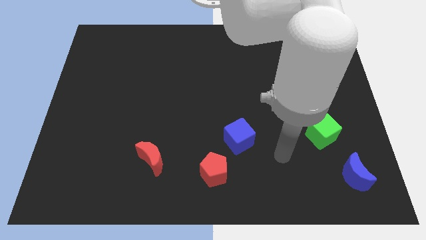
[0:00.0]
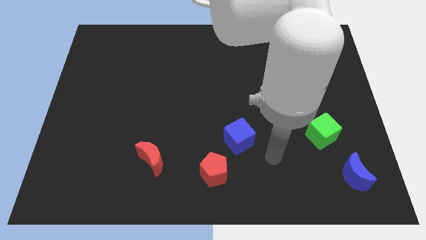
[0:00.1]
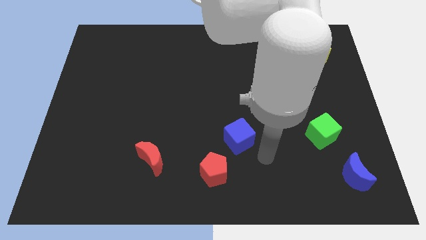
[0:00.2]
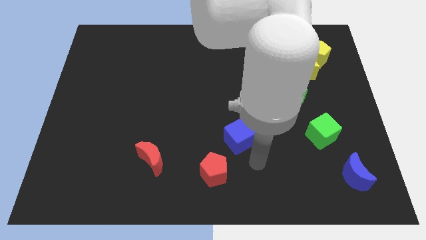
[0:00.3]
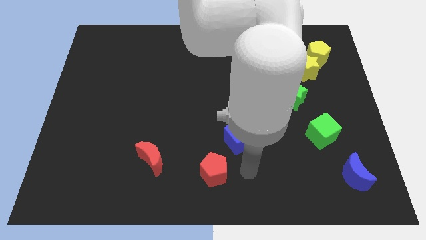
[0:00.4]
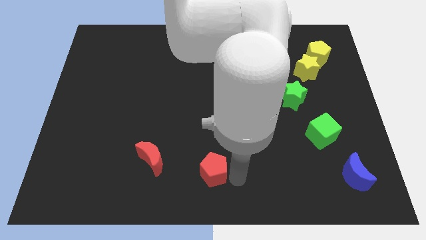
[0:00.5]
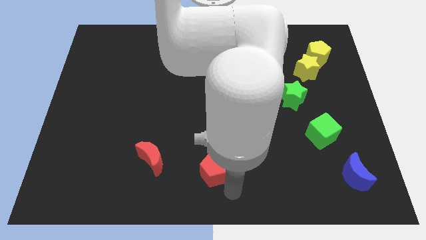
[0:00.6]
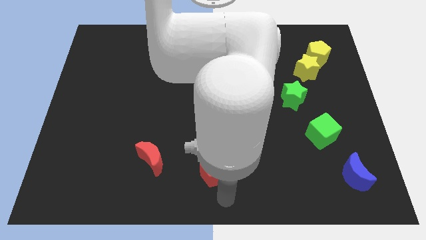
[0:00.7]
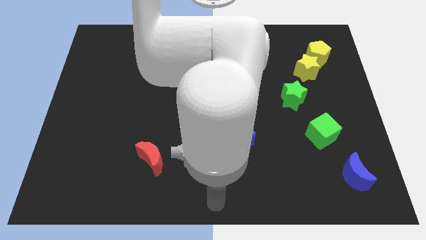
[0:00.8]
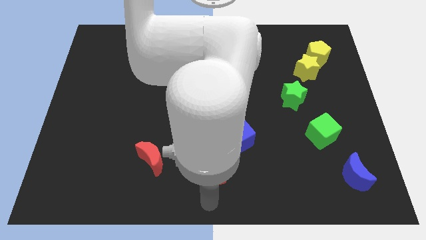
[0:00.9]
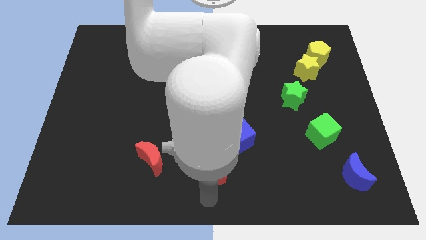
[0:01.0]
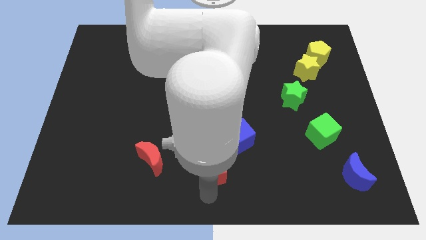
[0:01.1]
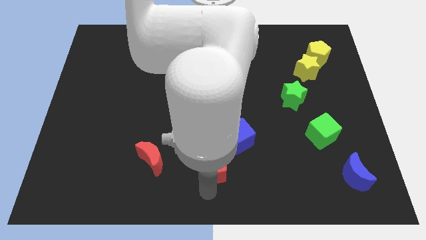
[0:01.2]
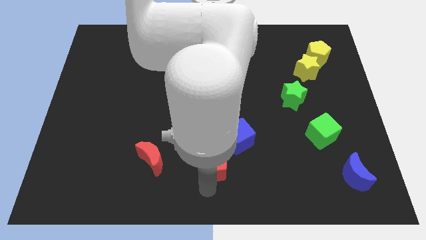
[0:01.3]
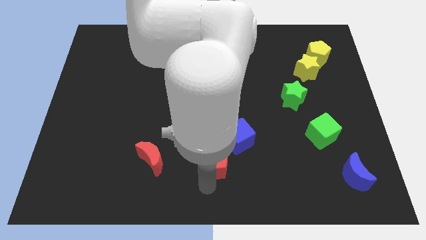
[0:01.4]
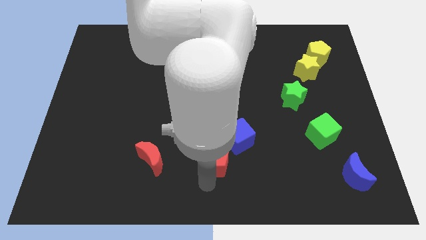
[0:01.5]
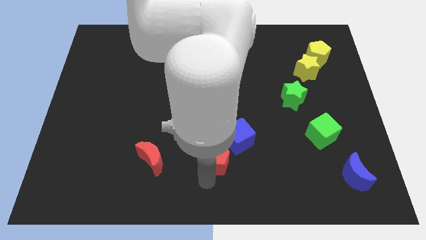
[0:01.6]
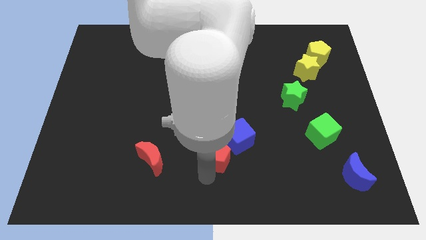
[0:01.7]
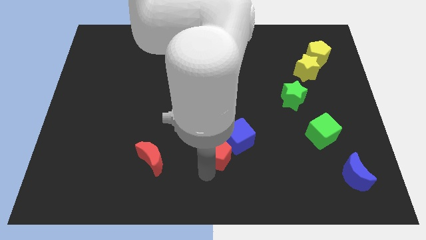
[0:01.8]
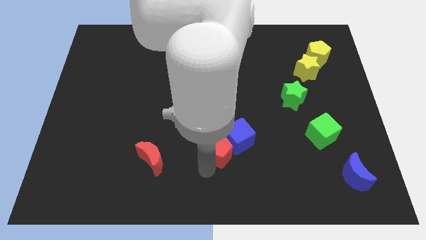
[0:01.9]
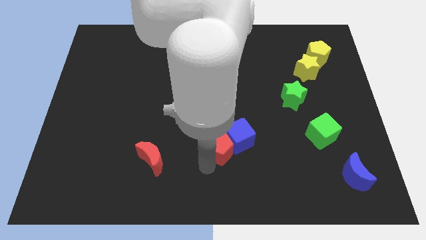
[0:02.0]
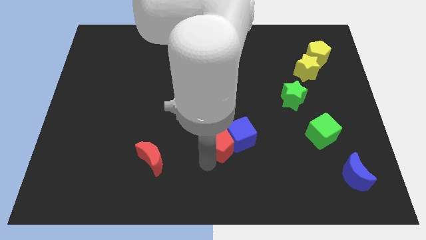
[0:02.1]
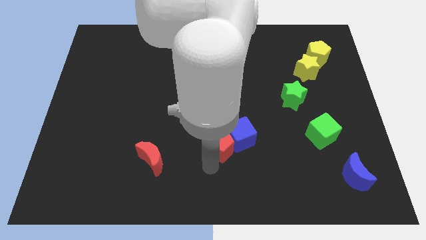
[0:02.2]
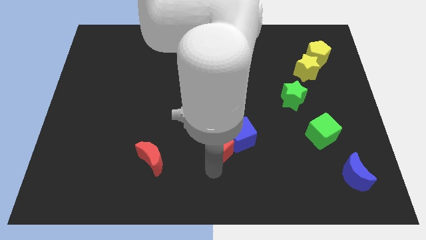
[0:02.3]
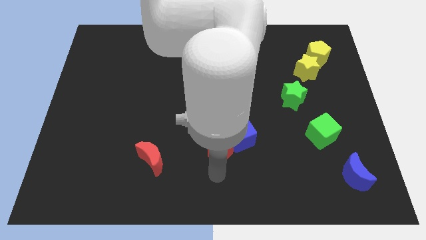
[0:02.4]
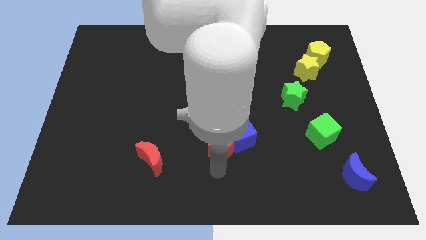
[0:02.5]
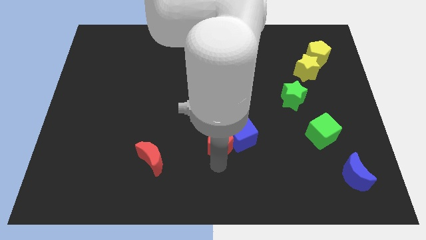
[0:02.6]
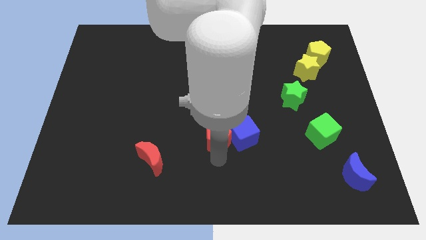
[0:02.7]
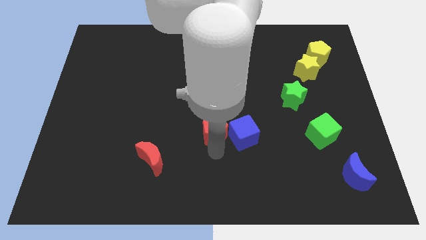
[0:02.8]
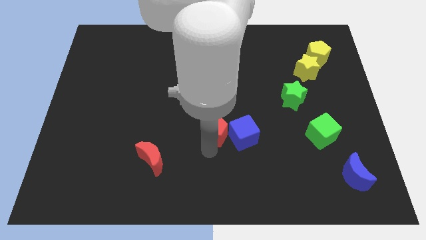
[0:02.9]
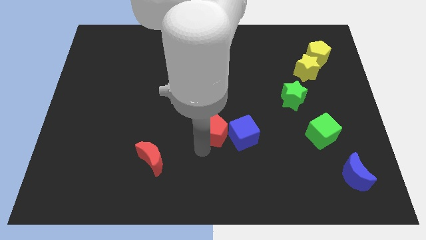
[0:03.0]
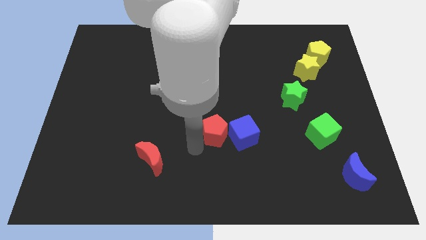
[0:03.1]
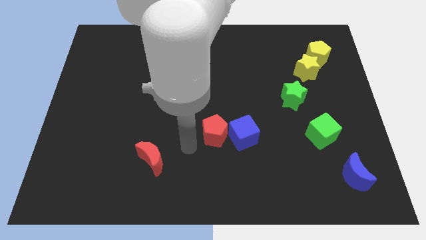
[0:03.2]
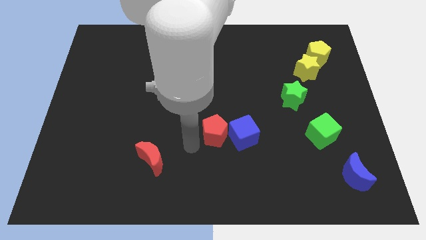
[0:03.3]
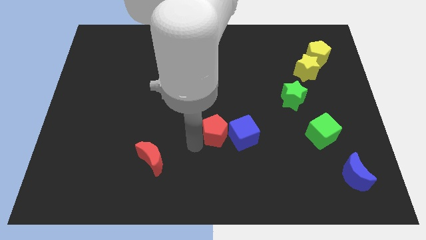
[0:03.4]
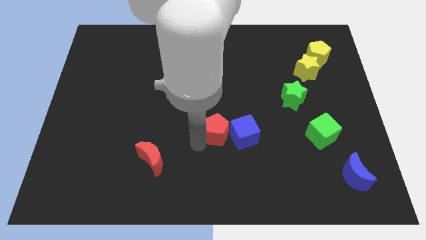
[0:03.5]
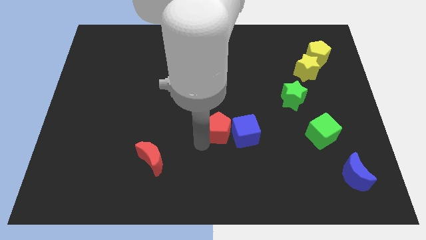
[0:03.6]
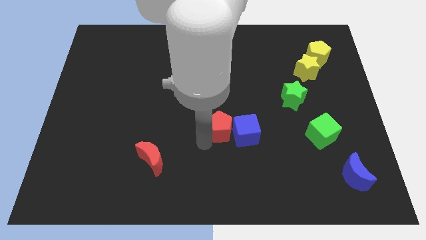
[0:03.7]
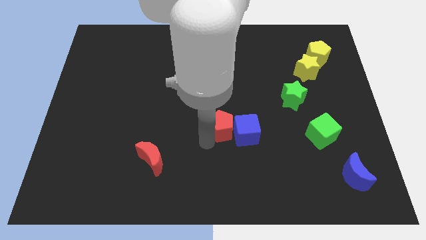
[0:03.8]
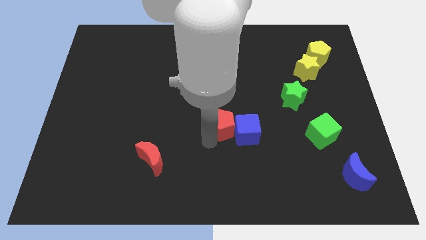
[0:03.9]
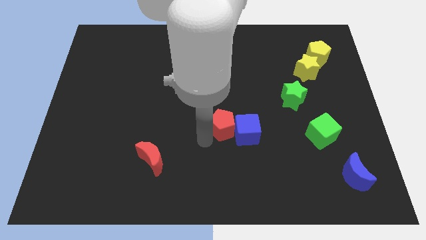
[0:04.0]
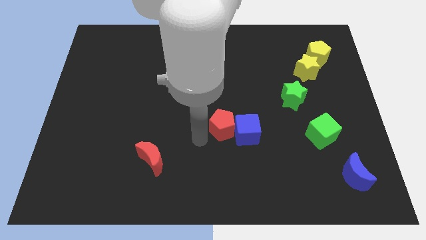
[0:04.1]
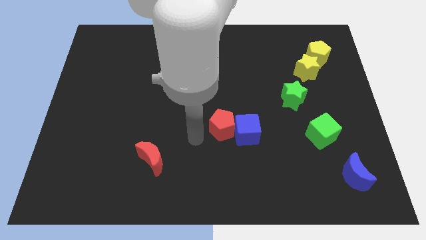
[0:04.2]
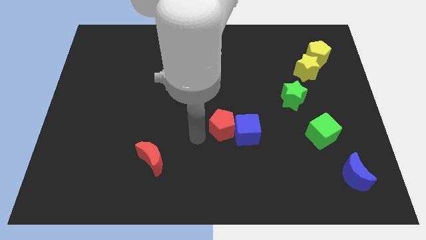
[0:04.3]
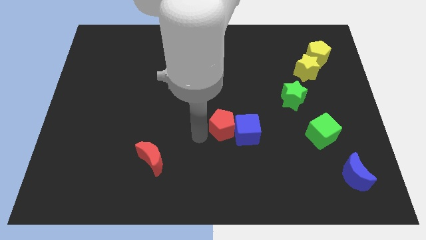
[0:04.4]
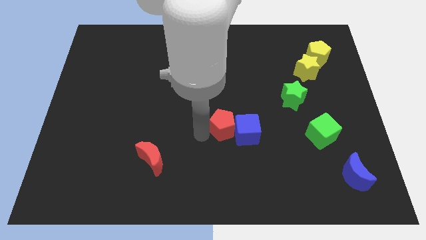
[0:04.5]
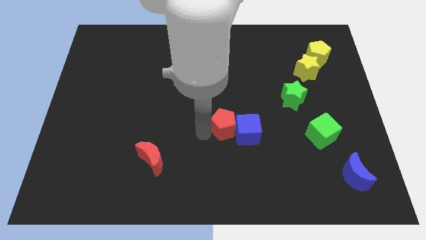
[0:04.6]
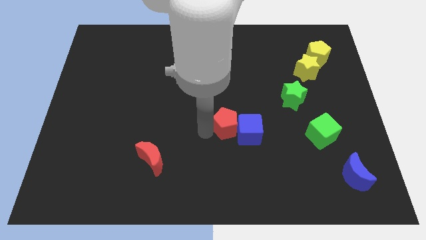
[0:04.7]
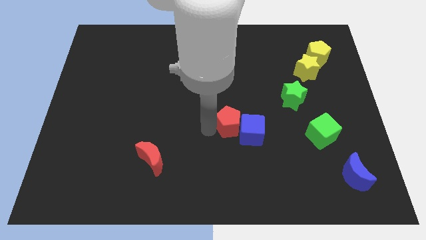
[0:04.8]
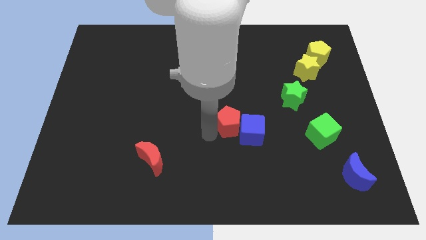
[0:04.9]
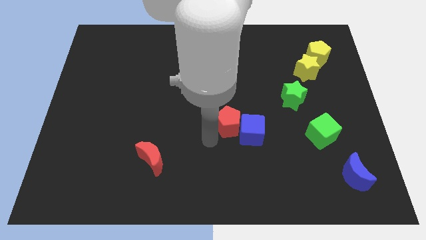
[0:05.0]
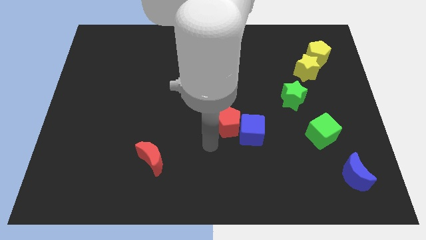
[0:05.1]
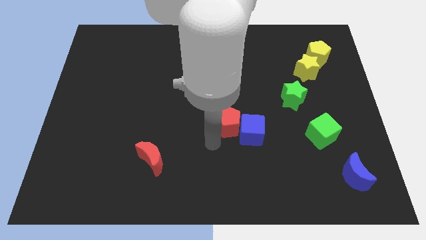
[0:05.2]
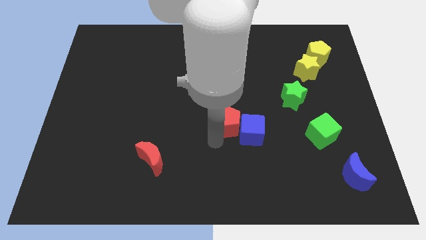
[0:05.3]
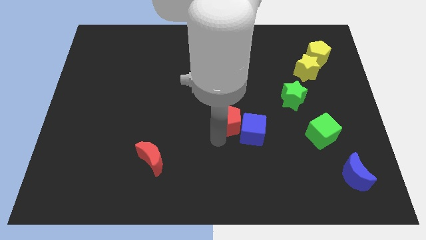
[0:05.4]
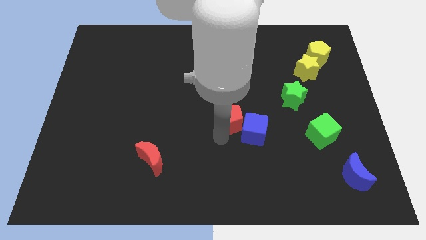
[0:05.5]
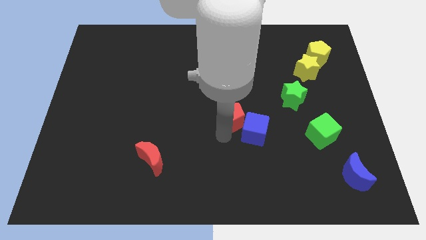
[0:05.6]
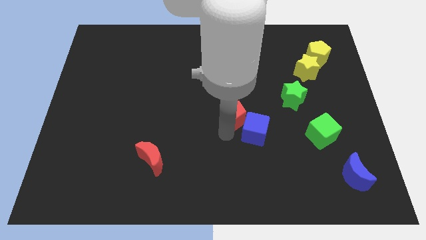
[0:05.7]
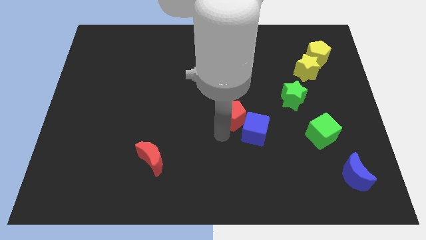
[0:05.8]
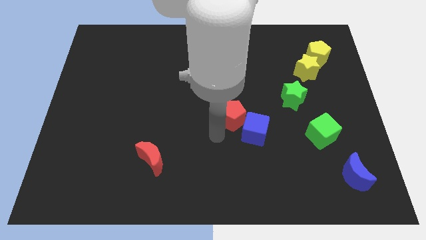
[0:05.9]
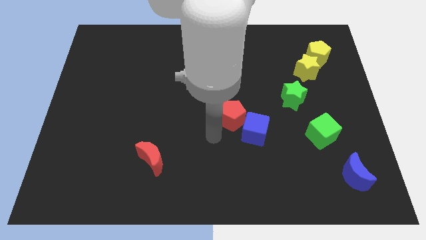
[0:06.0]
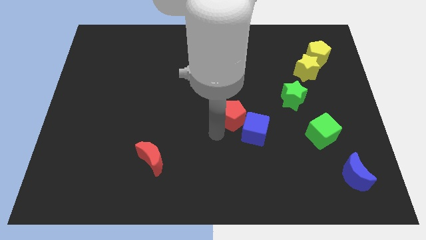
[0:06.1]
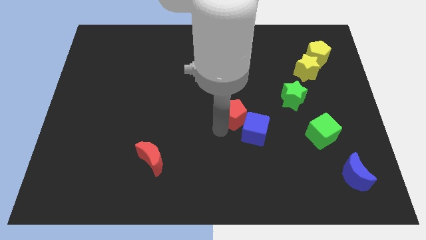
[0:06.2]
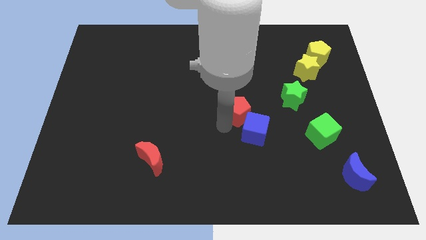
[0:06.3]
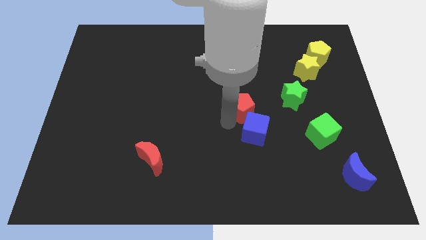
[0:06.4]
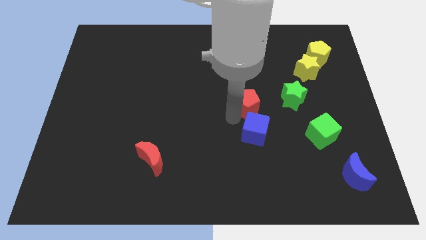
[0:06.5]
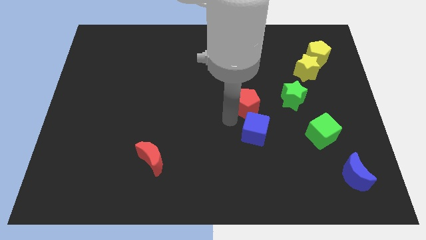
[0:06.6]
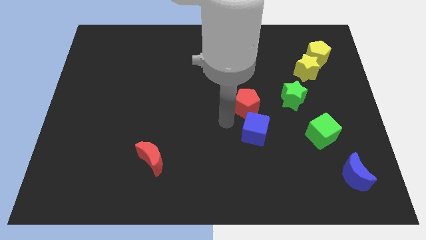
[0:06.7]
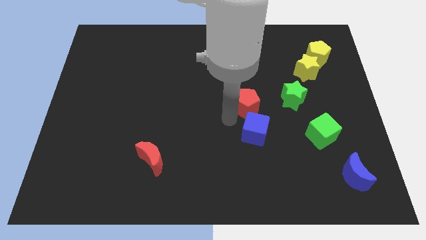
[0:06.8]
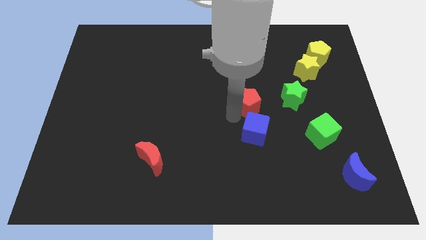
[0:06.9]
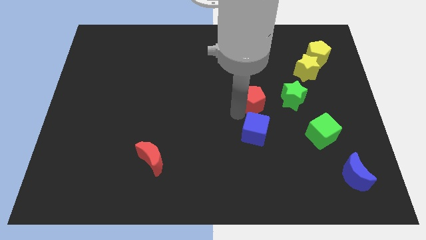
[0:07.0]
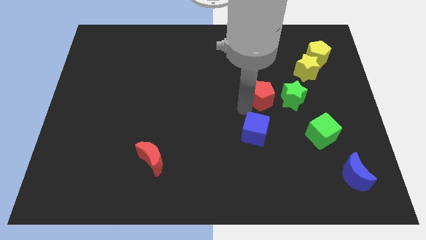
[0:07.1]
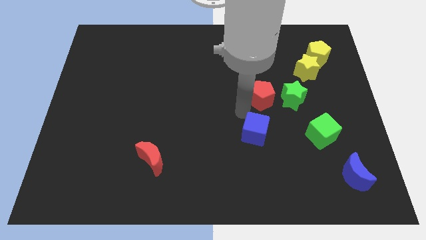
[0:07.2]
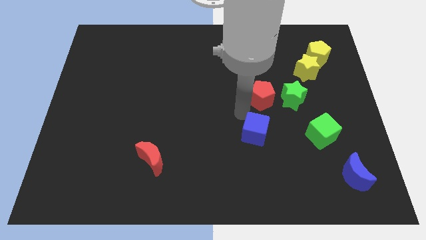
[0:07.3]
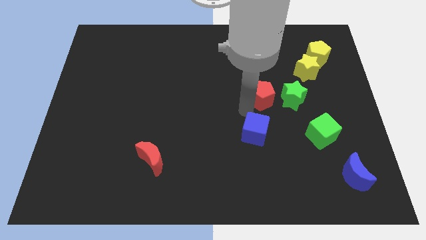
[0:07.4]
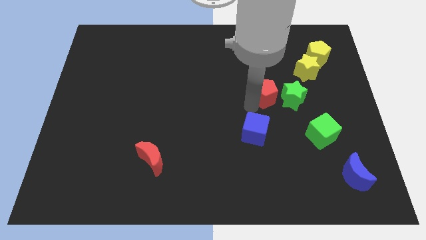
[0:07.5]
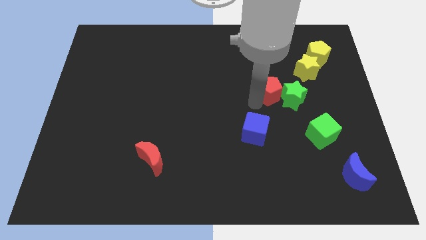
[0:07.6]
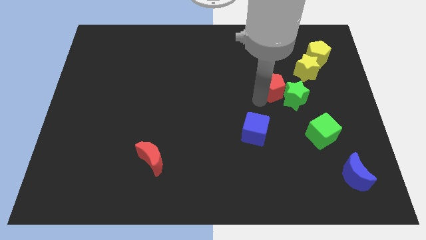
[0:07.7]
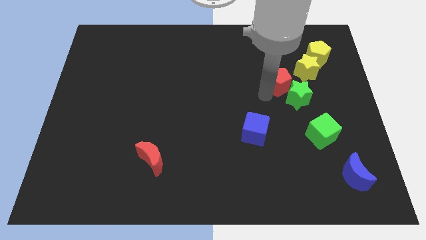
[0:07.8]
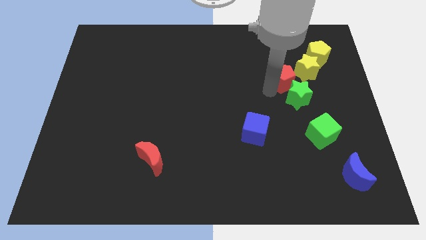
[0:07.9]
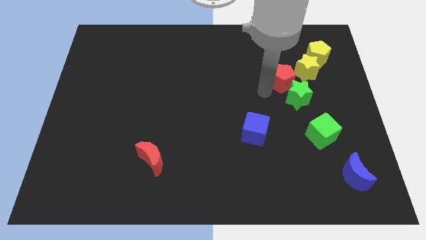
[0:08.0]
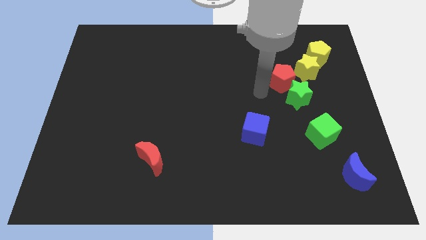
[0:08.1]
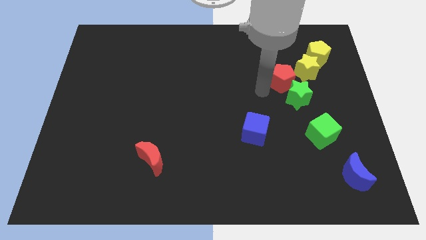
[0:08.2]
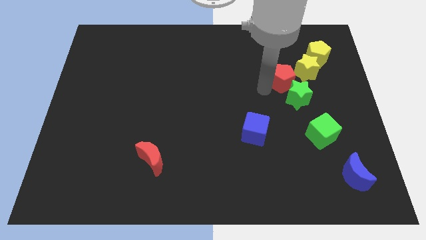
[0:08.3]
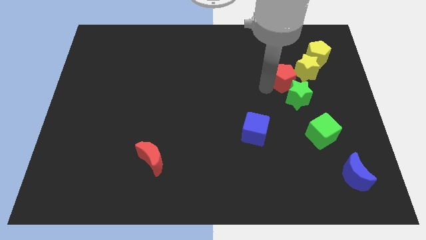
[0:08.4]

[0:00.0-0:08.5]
put the red pentagon to the bottom left of the yellow pentagon
